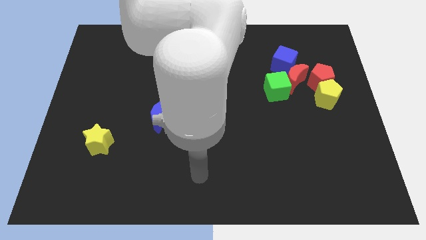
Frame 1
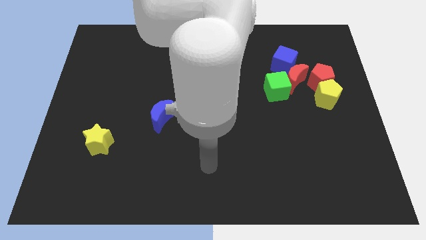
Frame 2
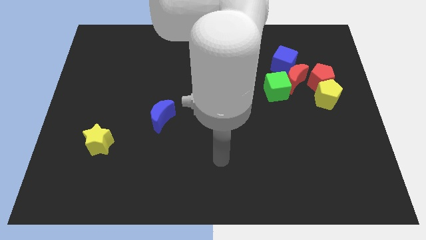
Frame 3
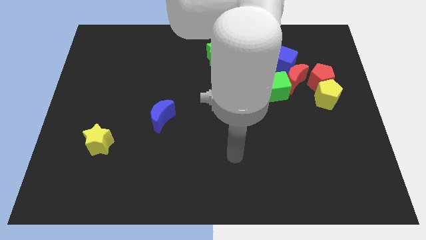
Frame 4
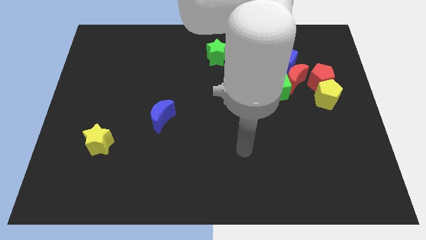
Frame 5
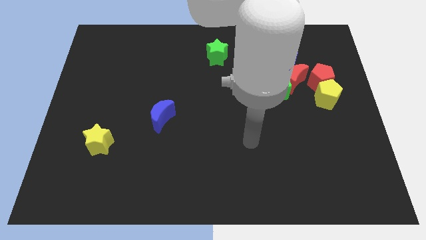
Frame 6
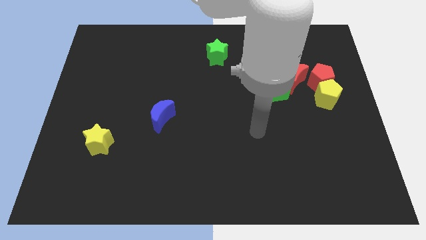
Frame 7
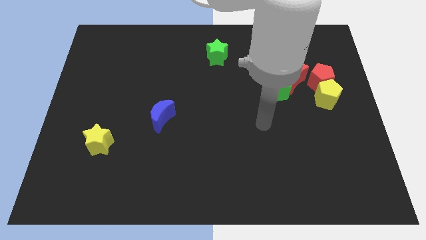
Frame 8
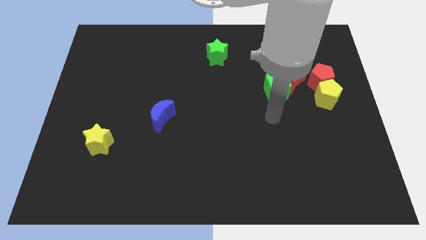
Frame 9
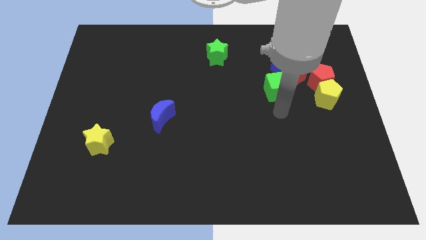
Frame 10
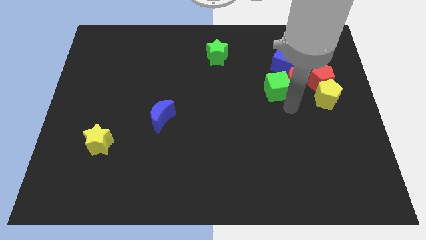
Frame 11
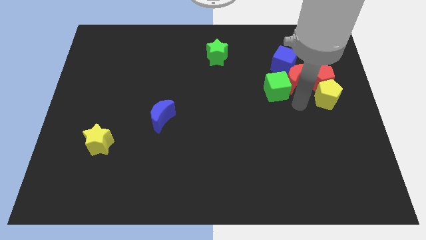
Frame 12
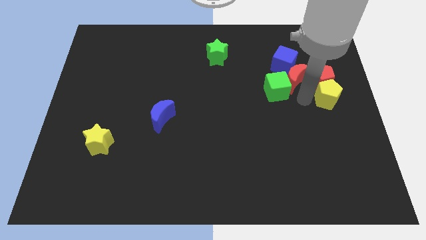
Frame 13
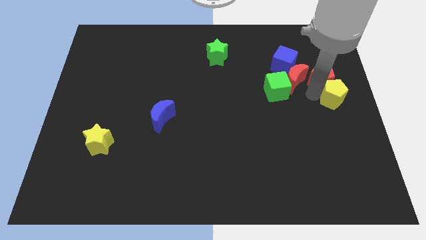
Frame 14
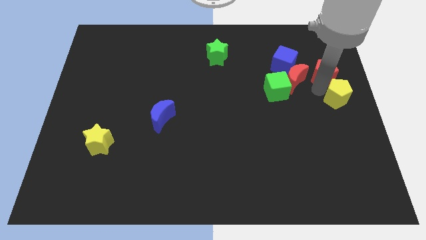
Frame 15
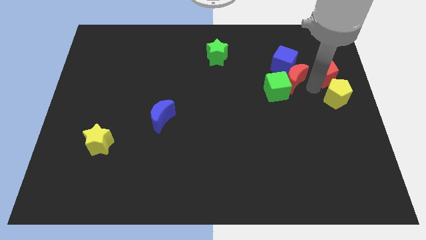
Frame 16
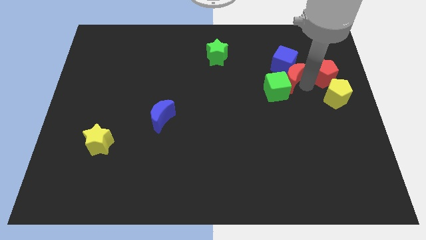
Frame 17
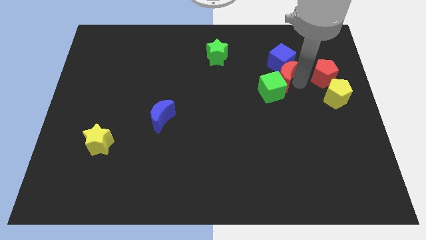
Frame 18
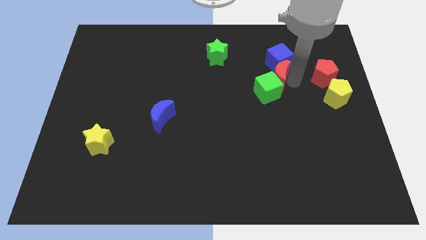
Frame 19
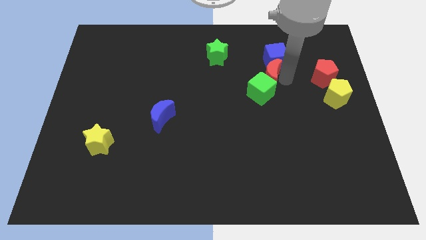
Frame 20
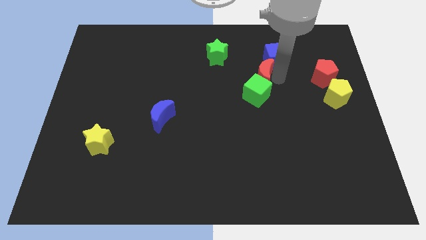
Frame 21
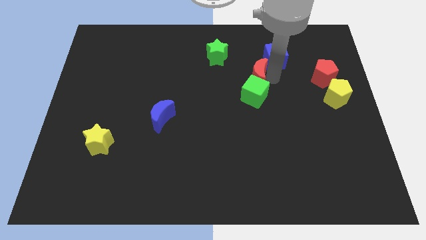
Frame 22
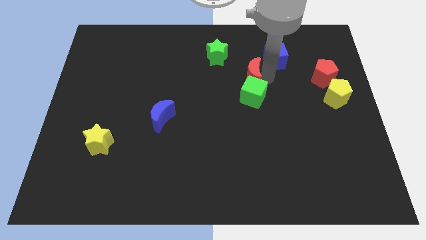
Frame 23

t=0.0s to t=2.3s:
pull the red moon apart from the group of blocks

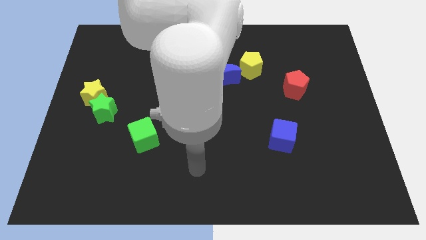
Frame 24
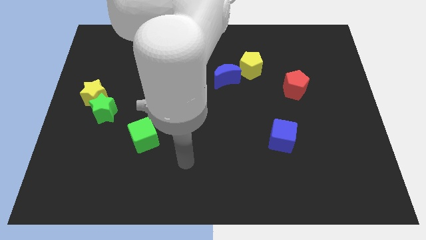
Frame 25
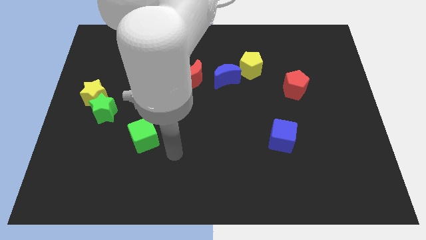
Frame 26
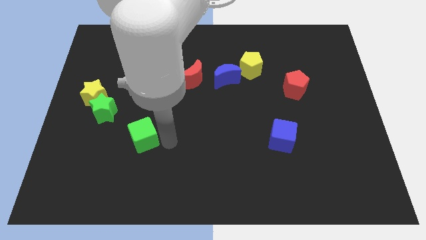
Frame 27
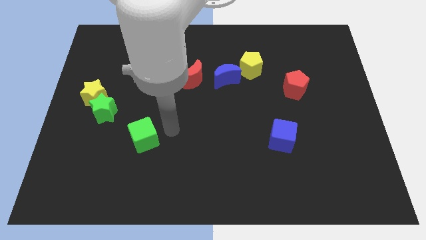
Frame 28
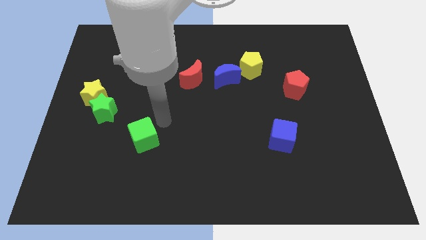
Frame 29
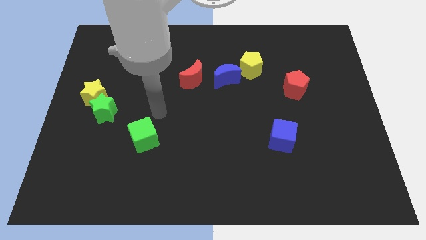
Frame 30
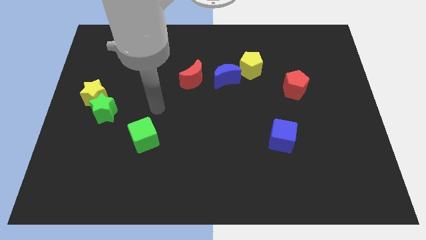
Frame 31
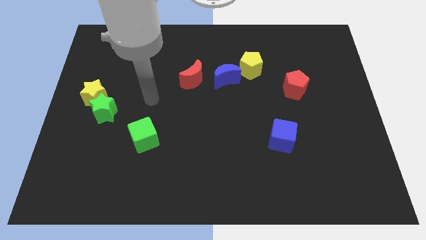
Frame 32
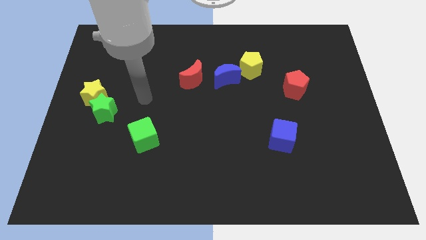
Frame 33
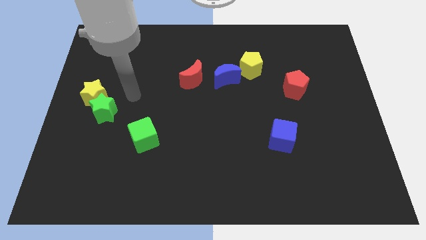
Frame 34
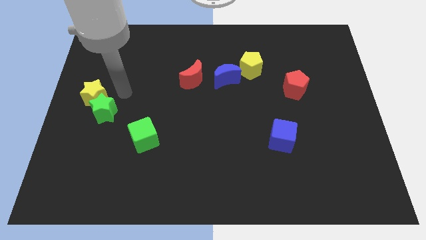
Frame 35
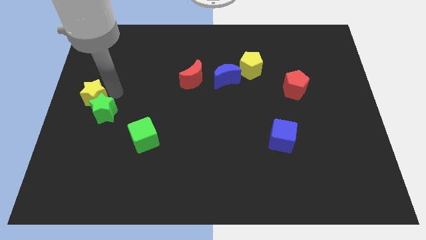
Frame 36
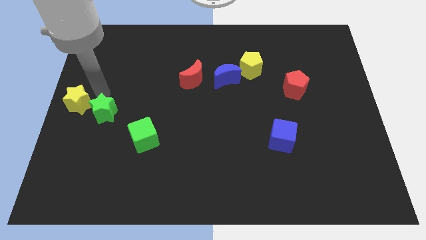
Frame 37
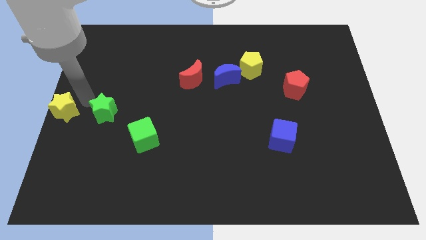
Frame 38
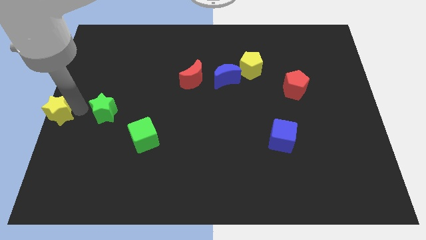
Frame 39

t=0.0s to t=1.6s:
separate the green star from the yellow star

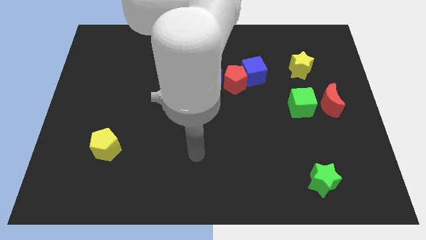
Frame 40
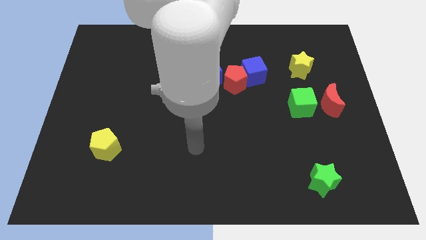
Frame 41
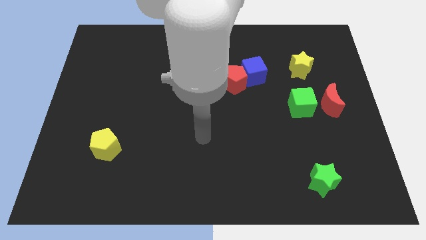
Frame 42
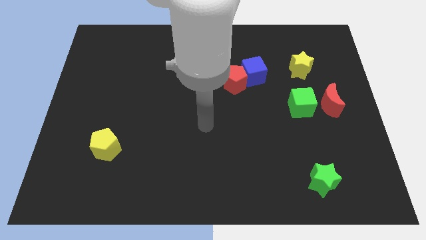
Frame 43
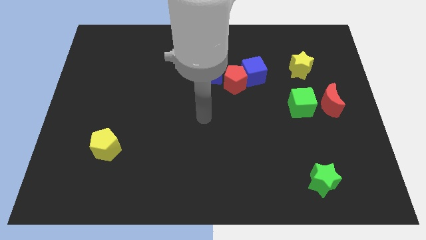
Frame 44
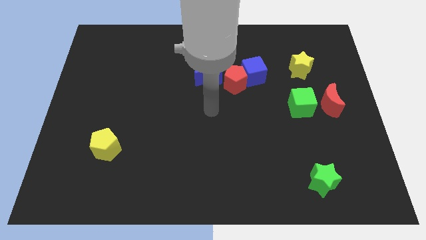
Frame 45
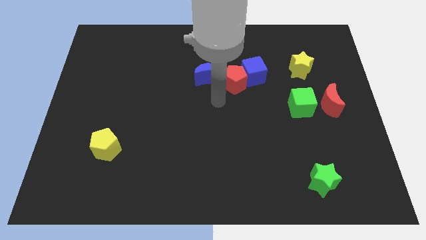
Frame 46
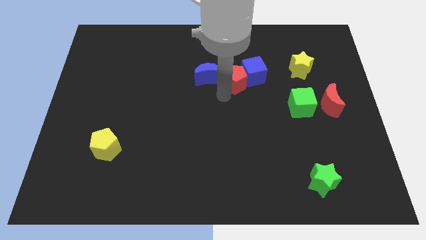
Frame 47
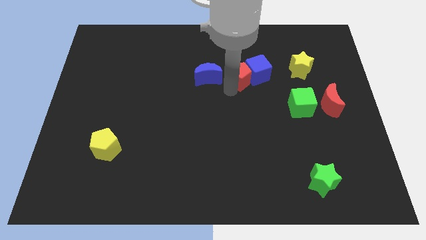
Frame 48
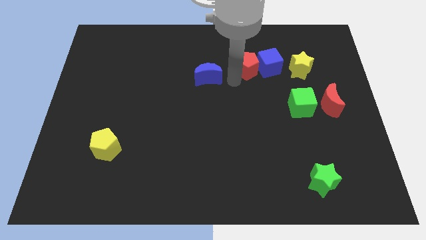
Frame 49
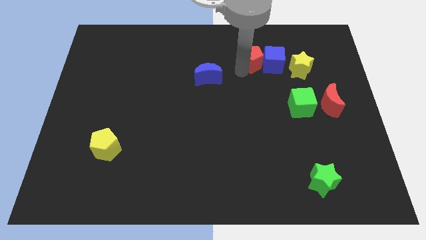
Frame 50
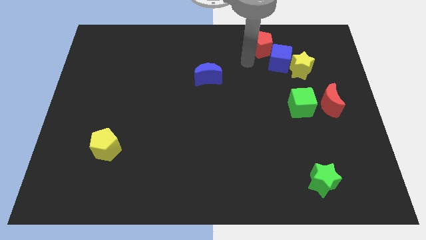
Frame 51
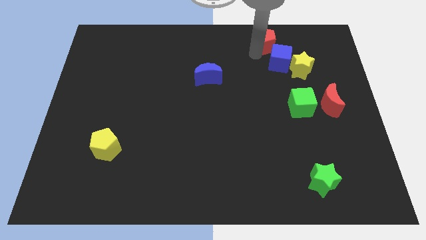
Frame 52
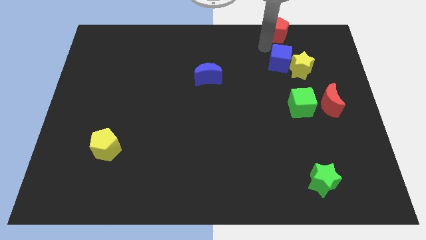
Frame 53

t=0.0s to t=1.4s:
pull the blue cube apart from the red pentagon

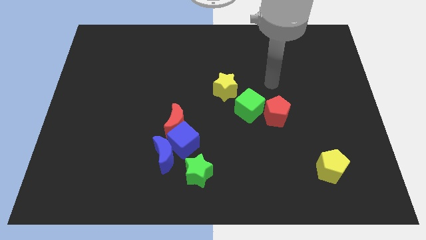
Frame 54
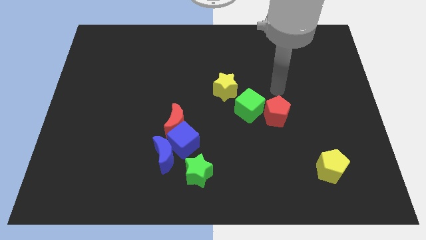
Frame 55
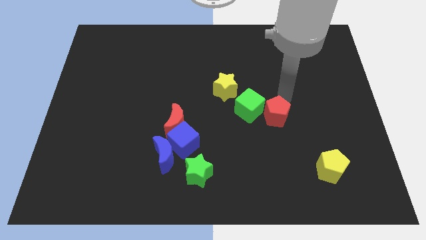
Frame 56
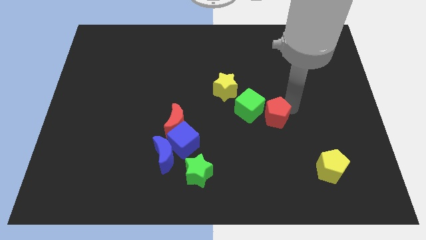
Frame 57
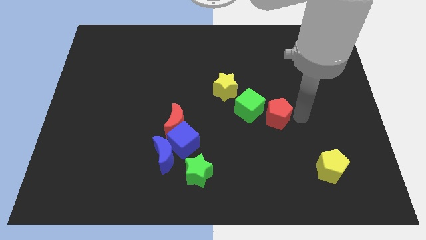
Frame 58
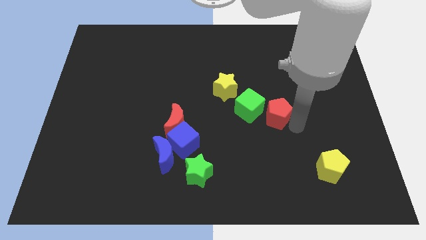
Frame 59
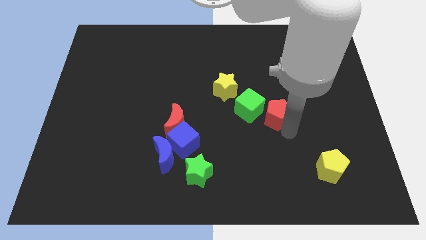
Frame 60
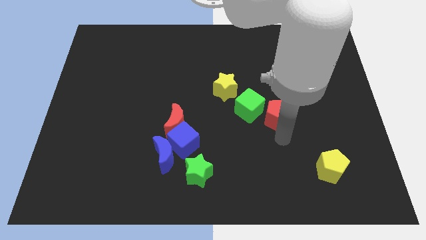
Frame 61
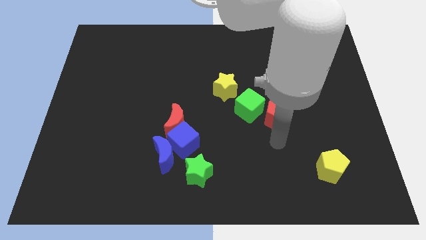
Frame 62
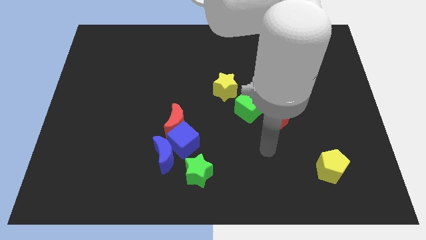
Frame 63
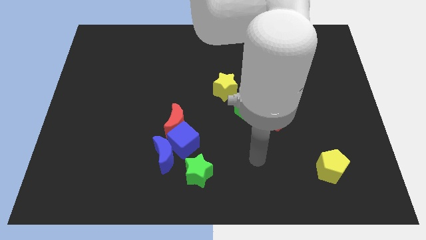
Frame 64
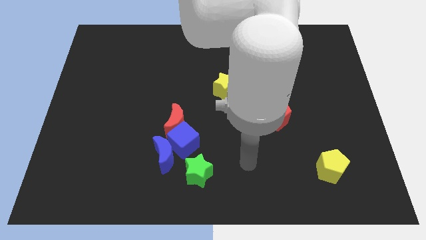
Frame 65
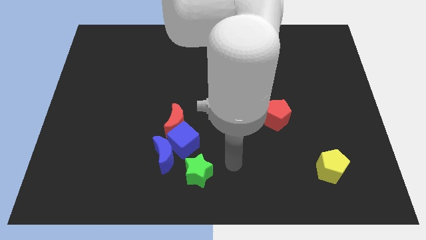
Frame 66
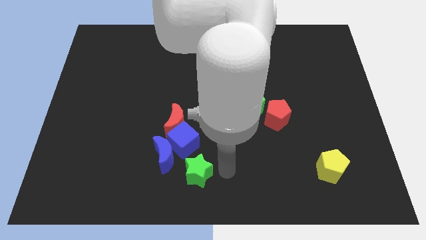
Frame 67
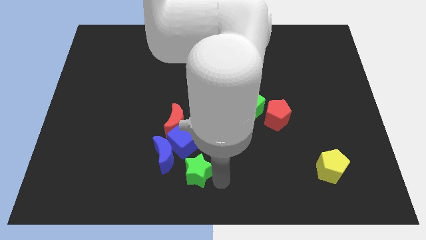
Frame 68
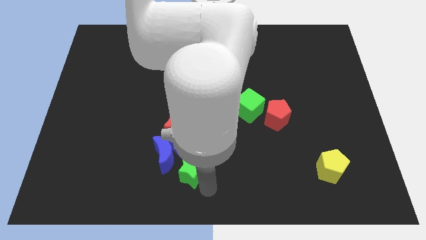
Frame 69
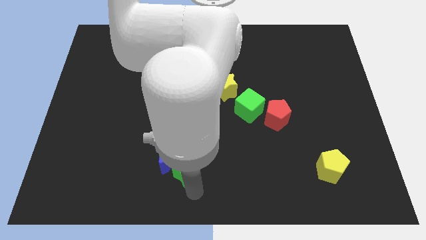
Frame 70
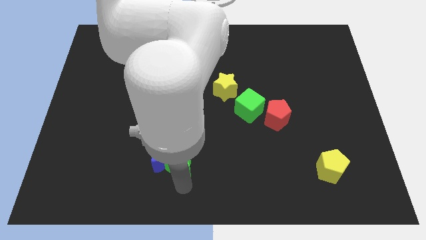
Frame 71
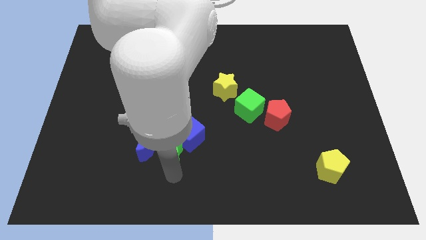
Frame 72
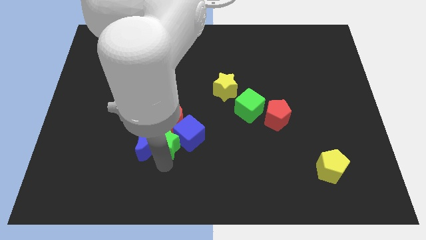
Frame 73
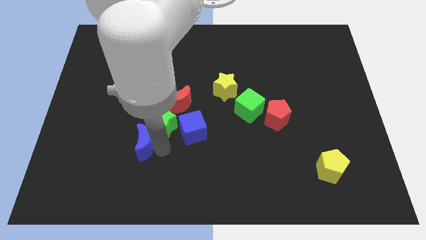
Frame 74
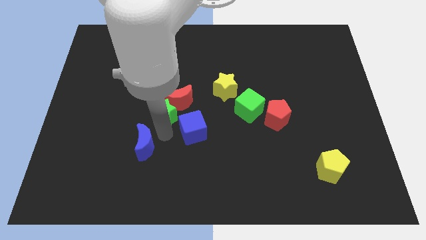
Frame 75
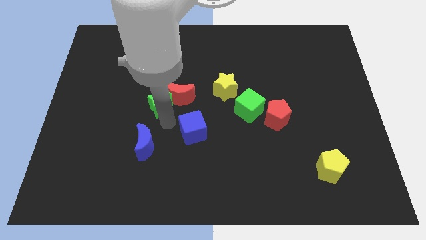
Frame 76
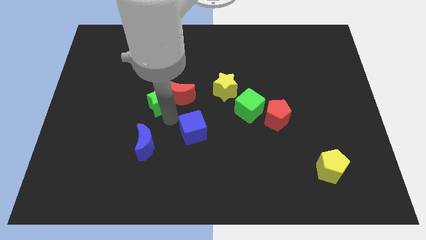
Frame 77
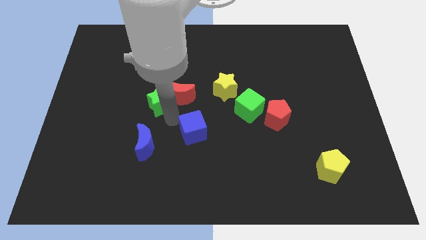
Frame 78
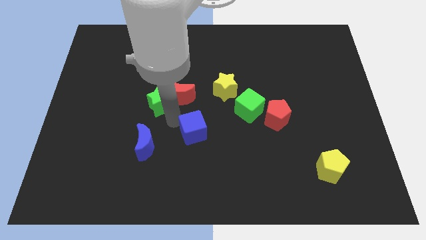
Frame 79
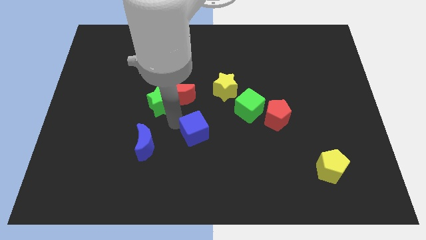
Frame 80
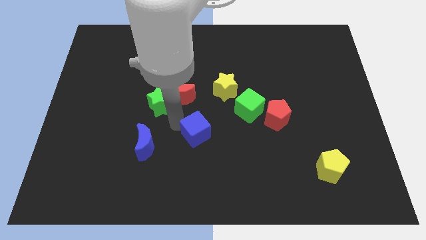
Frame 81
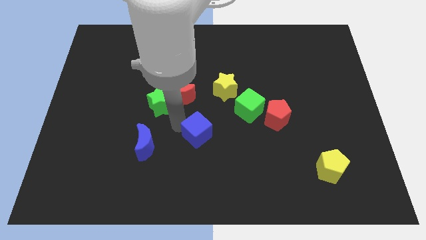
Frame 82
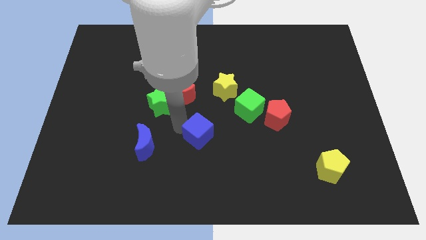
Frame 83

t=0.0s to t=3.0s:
pull the blue cube apart from the blue moon, red moon, and green star

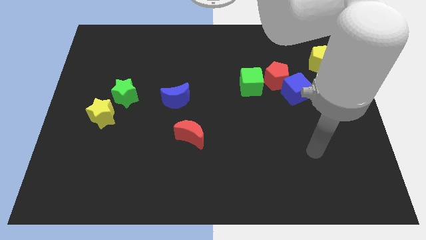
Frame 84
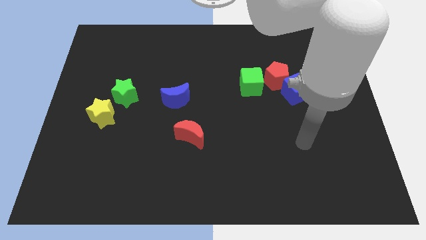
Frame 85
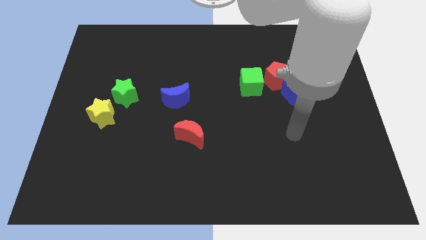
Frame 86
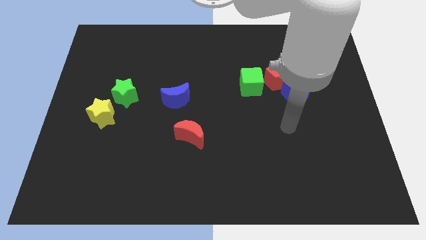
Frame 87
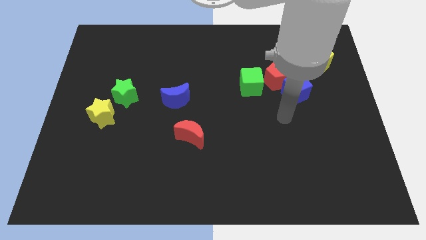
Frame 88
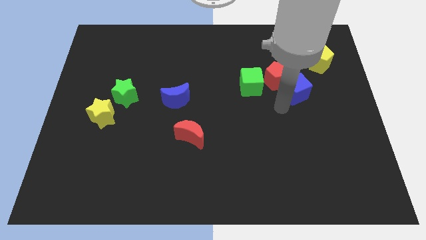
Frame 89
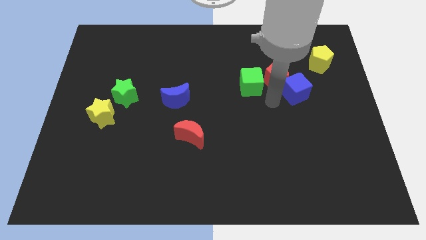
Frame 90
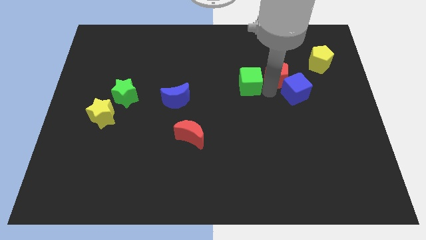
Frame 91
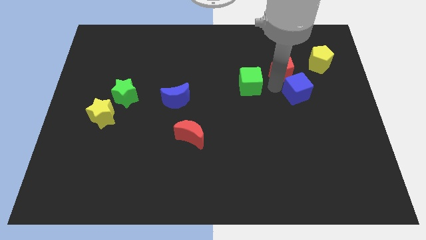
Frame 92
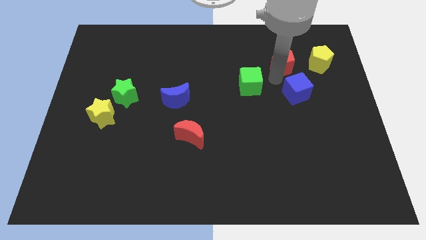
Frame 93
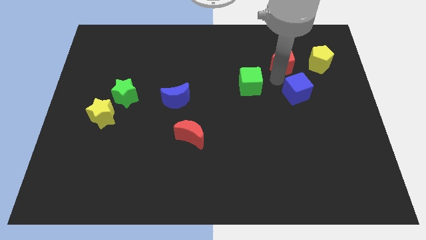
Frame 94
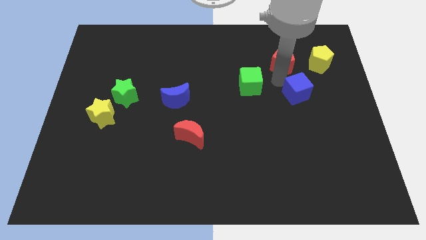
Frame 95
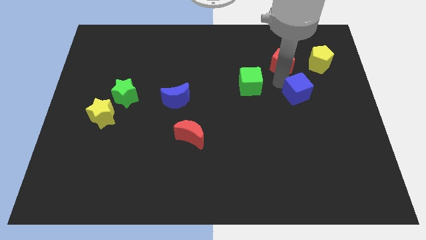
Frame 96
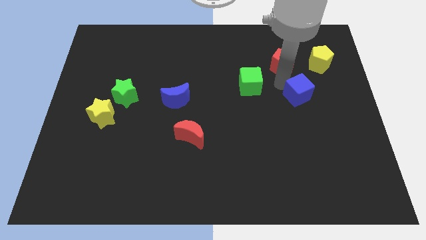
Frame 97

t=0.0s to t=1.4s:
move the blue cube away from the red pentagon
